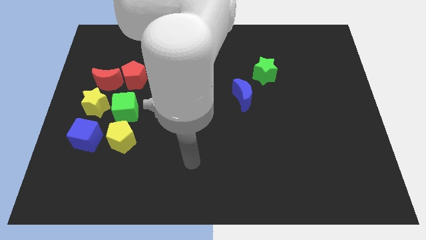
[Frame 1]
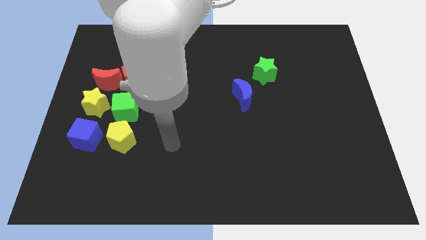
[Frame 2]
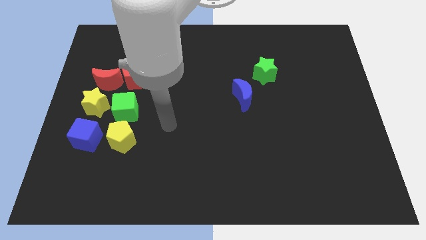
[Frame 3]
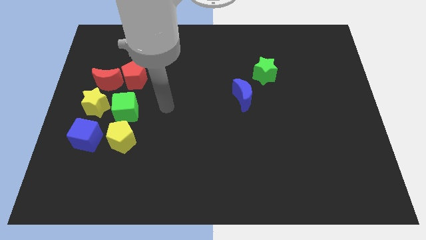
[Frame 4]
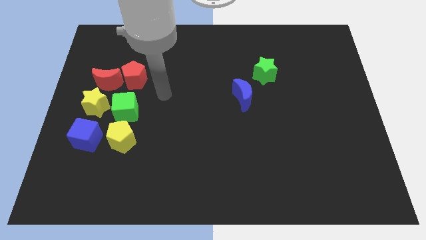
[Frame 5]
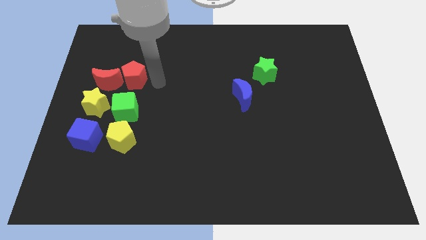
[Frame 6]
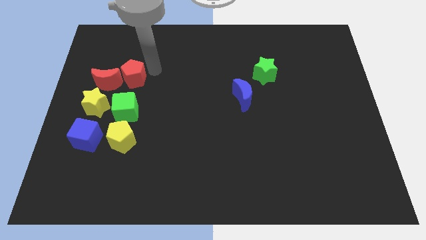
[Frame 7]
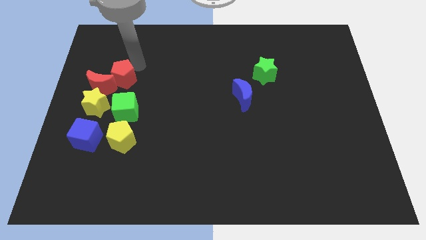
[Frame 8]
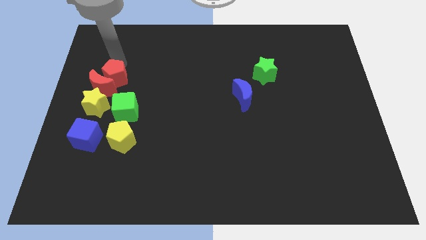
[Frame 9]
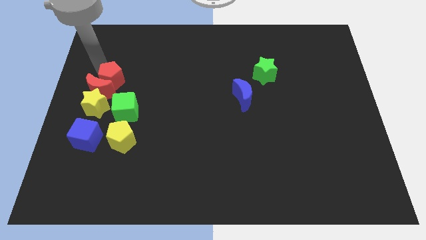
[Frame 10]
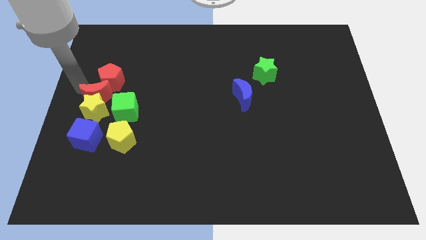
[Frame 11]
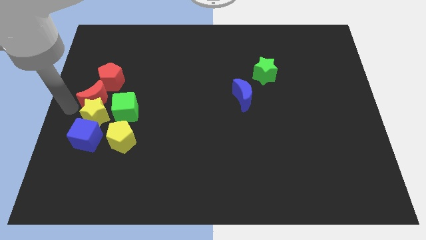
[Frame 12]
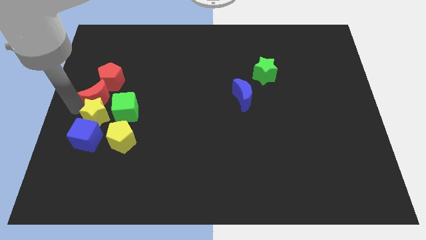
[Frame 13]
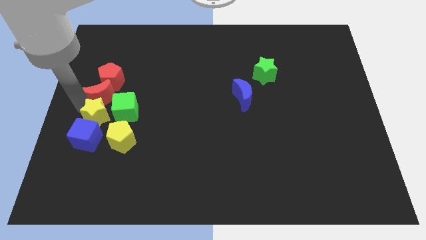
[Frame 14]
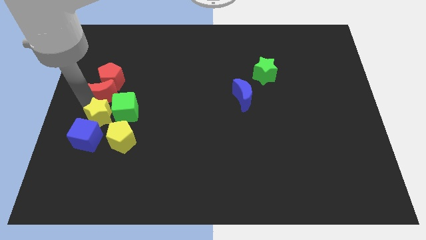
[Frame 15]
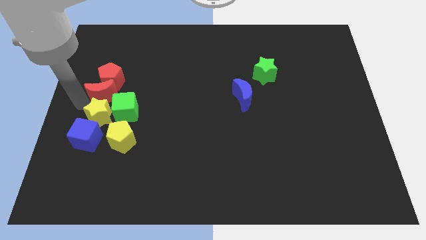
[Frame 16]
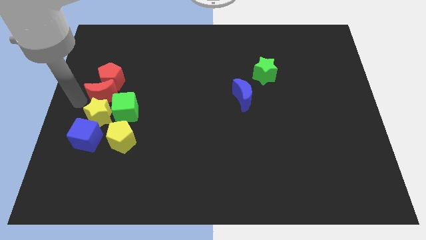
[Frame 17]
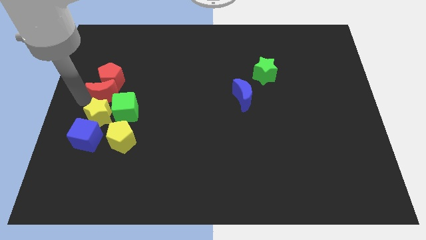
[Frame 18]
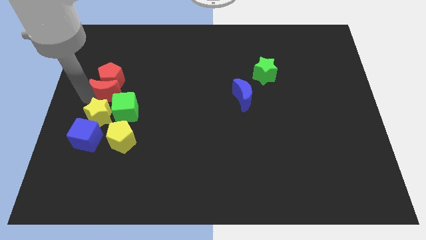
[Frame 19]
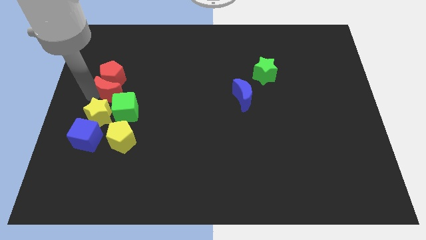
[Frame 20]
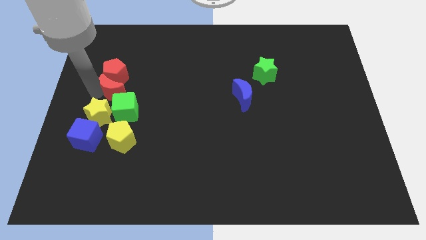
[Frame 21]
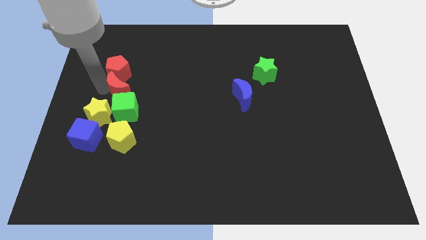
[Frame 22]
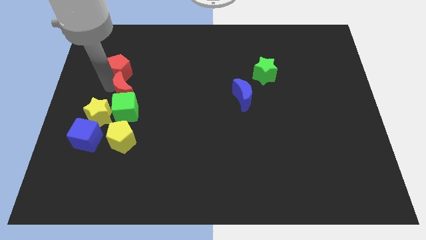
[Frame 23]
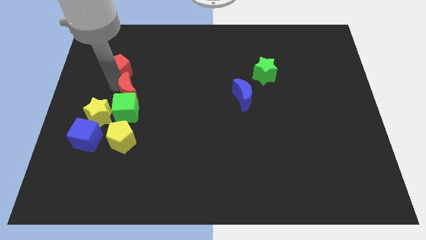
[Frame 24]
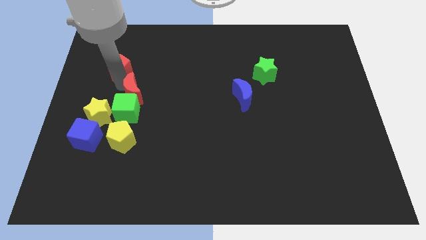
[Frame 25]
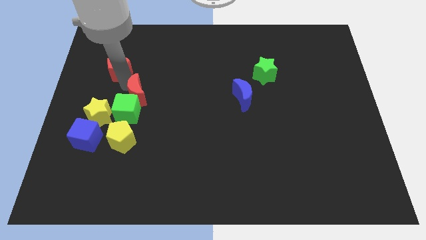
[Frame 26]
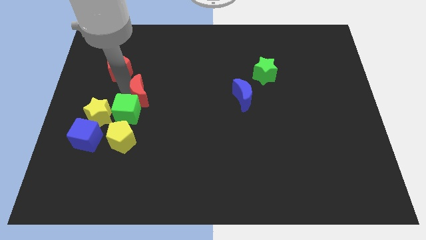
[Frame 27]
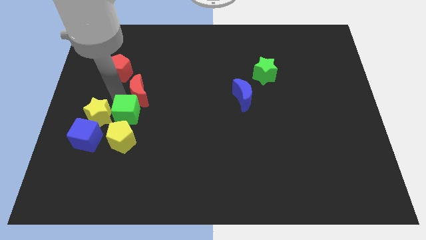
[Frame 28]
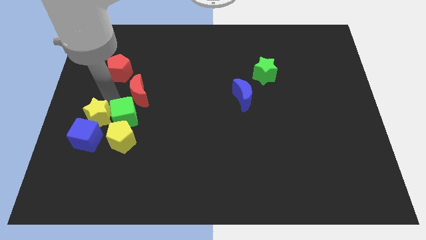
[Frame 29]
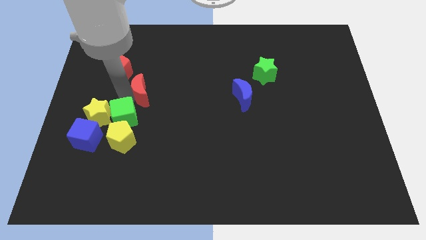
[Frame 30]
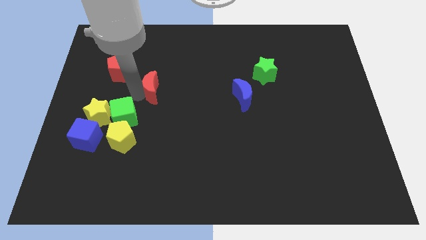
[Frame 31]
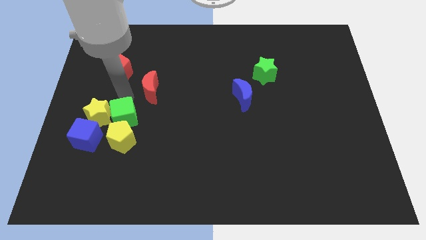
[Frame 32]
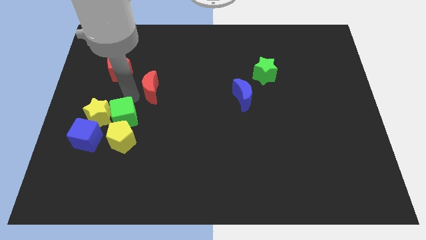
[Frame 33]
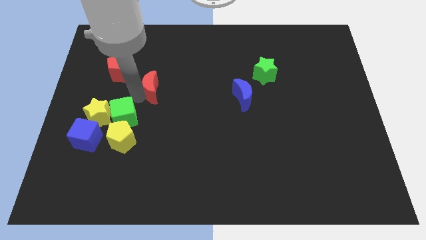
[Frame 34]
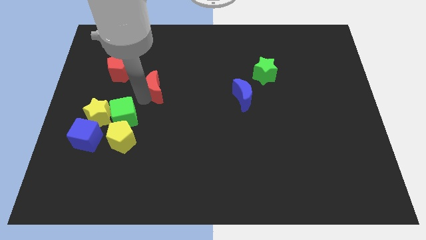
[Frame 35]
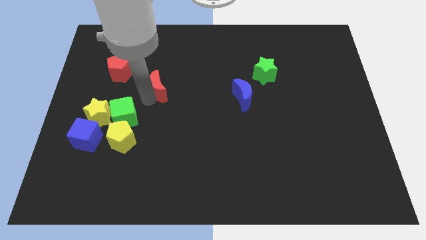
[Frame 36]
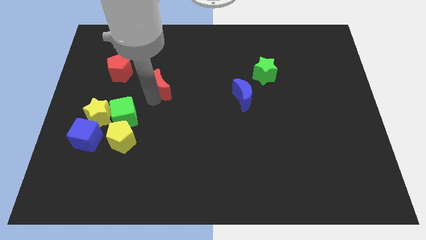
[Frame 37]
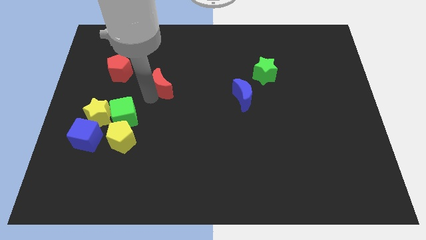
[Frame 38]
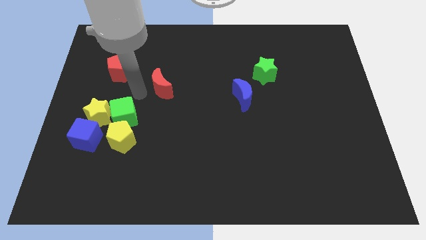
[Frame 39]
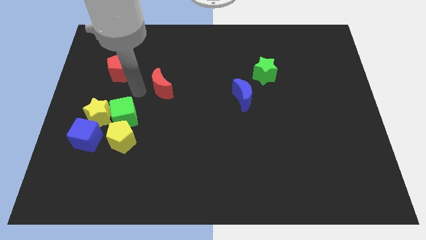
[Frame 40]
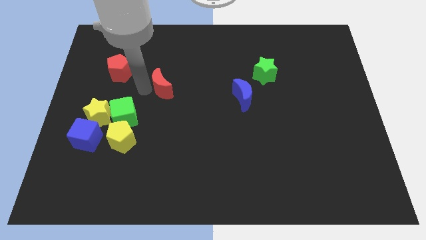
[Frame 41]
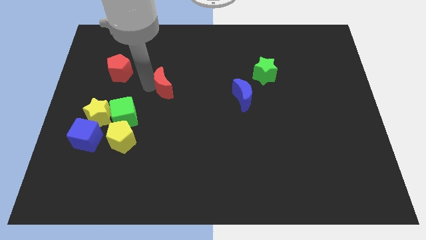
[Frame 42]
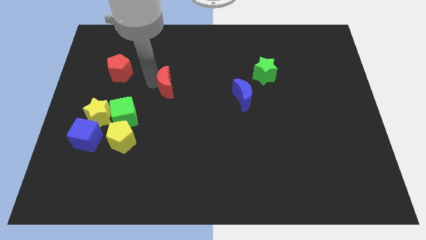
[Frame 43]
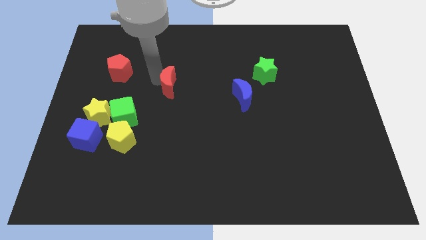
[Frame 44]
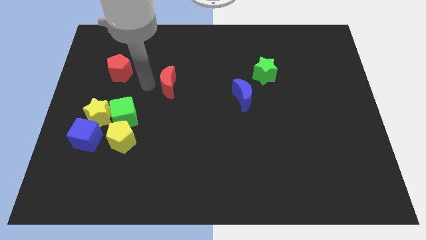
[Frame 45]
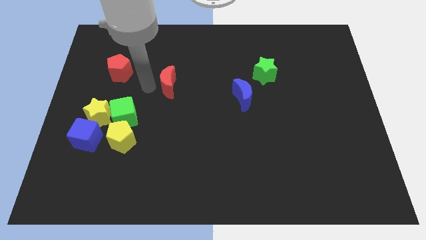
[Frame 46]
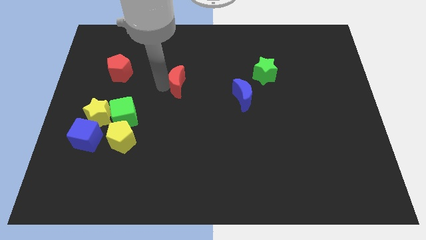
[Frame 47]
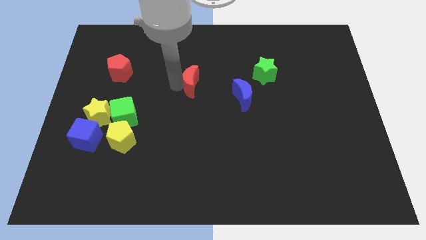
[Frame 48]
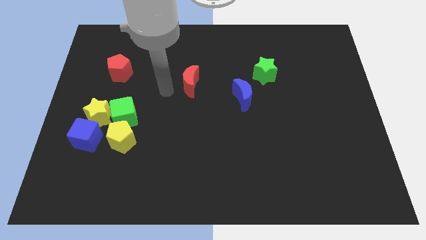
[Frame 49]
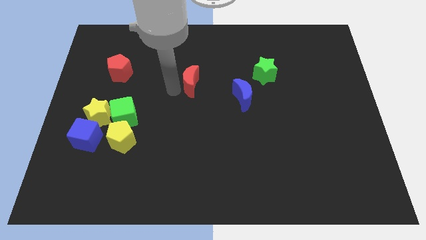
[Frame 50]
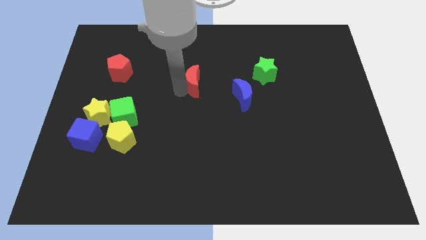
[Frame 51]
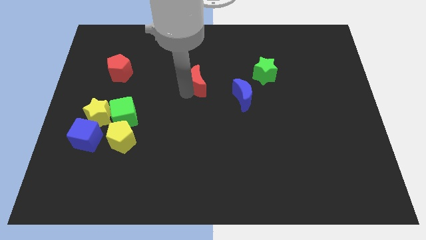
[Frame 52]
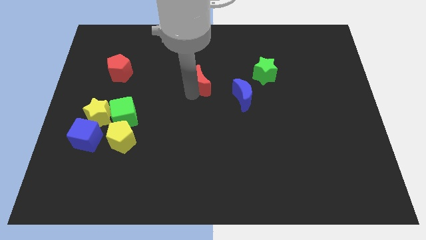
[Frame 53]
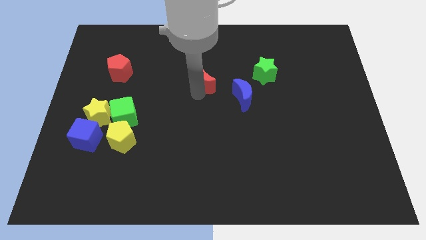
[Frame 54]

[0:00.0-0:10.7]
slide the red moon just left of the green star

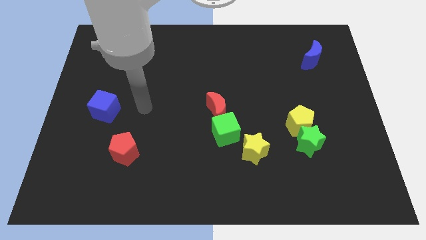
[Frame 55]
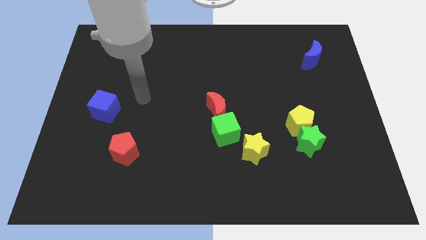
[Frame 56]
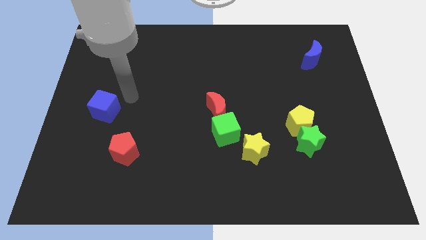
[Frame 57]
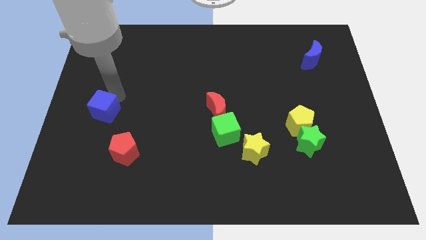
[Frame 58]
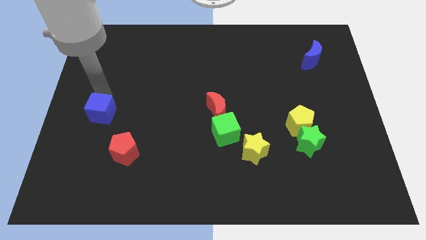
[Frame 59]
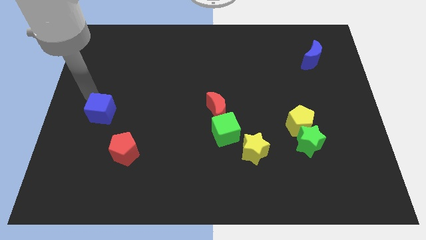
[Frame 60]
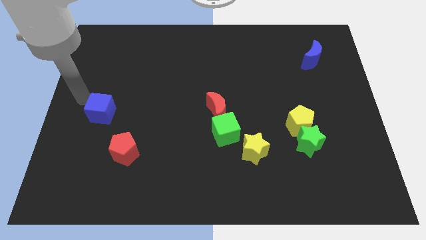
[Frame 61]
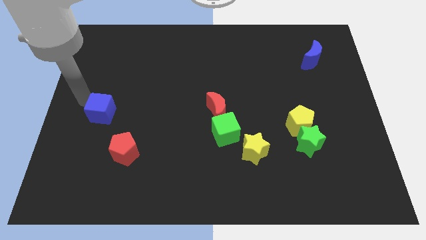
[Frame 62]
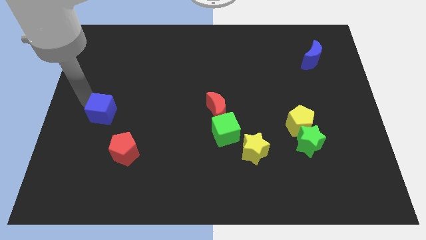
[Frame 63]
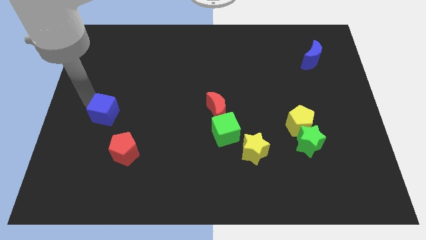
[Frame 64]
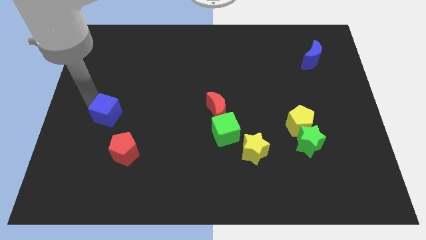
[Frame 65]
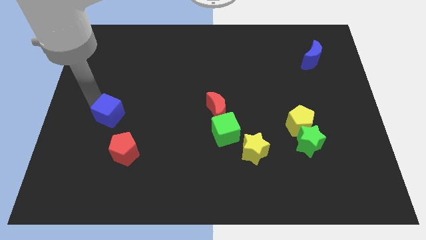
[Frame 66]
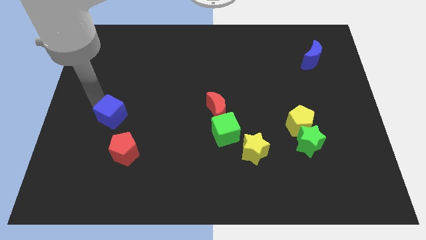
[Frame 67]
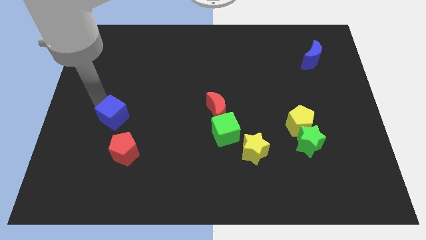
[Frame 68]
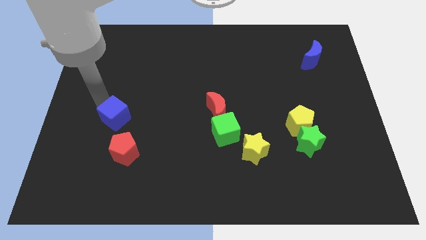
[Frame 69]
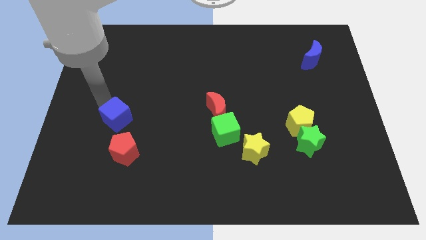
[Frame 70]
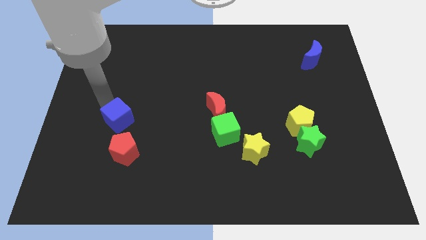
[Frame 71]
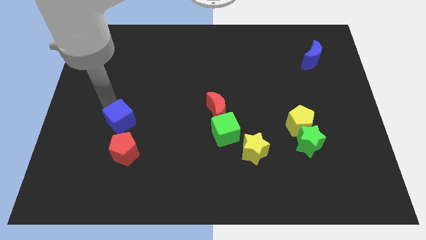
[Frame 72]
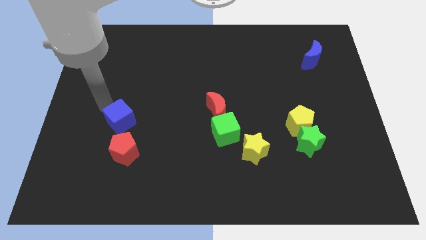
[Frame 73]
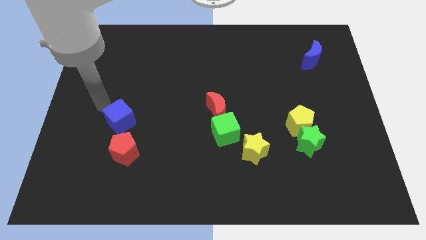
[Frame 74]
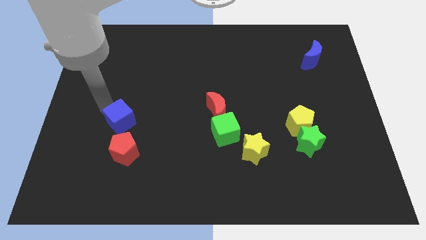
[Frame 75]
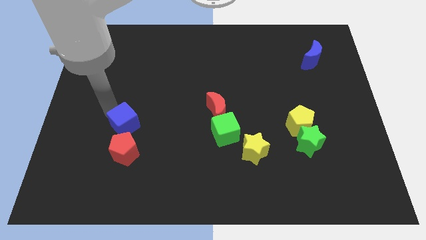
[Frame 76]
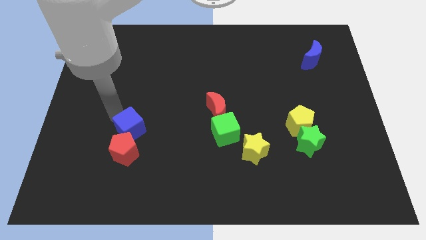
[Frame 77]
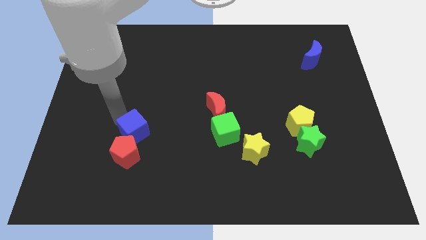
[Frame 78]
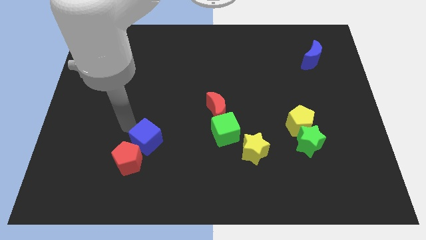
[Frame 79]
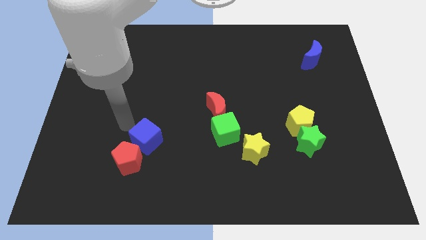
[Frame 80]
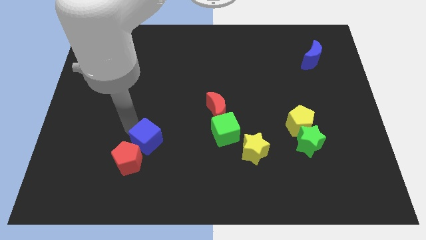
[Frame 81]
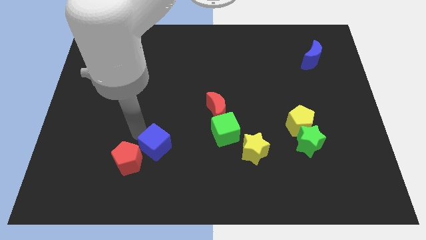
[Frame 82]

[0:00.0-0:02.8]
push the blue cube right of the red pentagon
